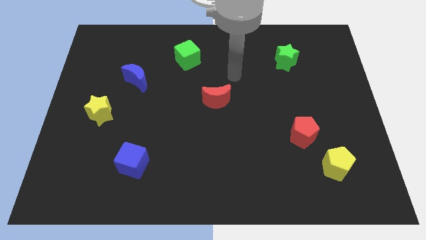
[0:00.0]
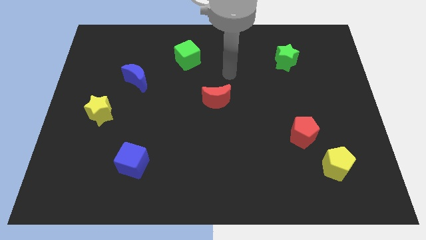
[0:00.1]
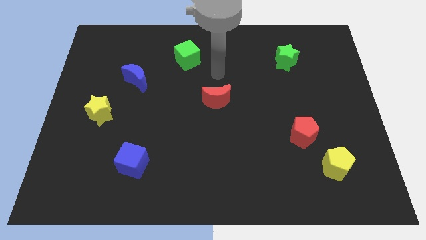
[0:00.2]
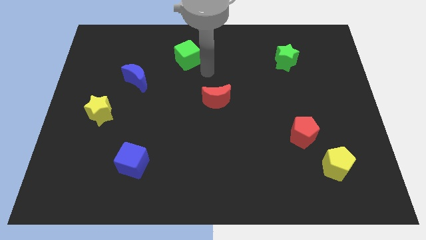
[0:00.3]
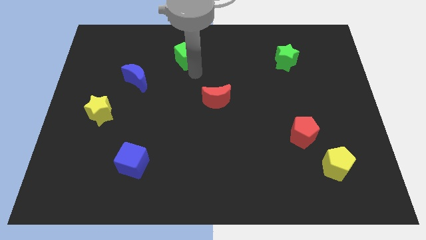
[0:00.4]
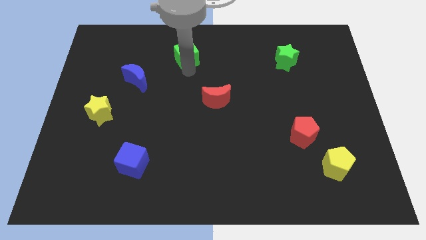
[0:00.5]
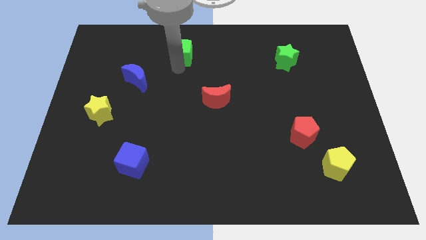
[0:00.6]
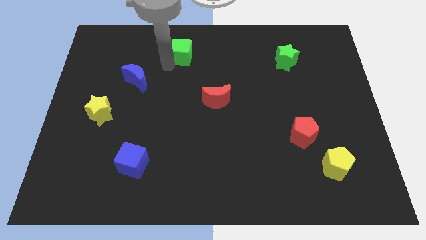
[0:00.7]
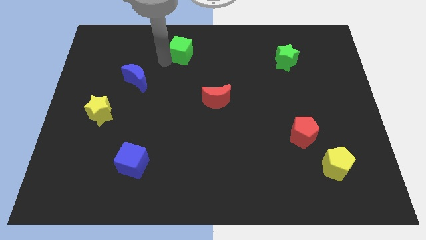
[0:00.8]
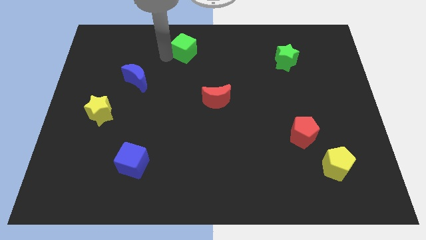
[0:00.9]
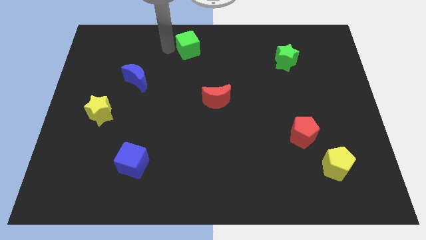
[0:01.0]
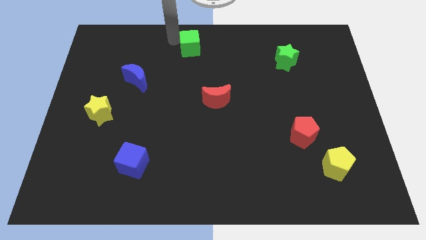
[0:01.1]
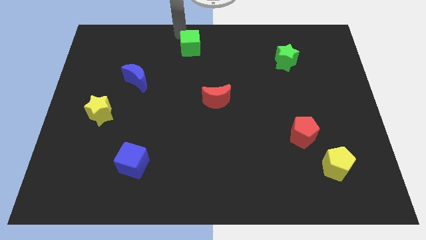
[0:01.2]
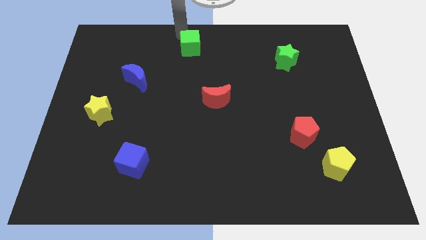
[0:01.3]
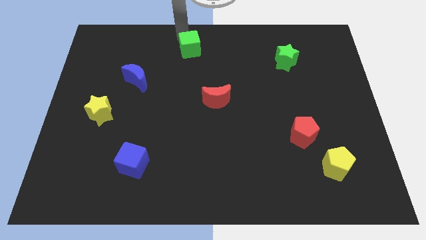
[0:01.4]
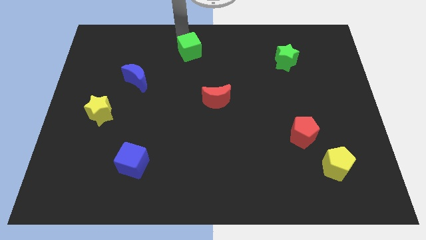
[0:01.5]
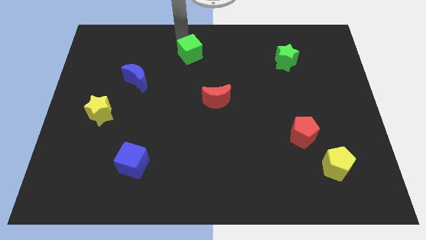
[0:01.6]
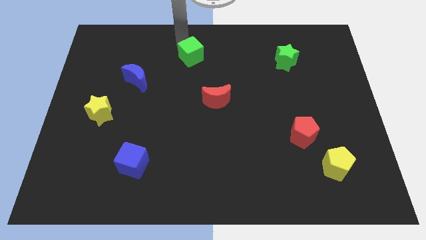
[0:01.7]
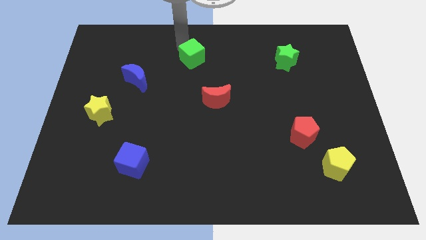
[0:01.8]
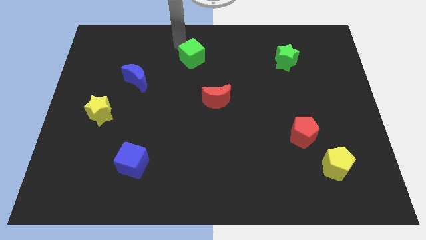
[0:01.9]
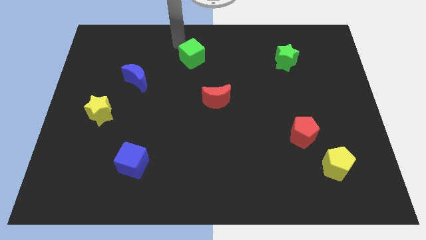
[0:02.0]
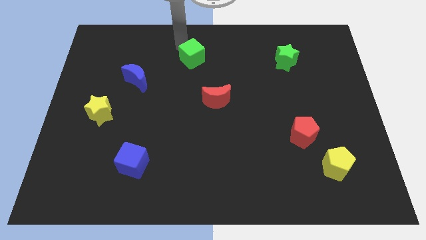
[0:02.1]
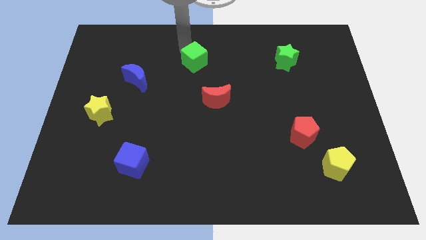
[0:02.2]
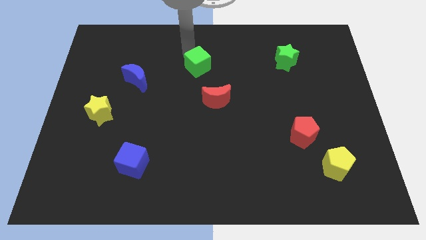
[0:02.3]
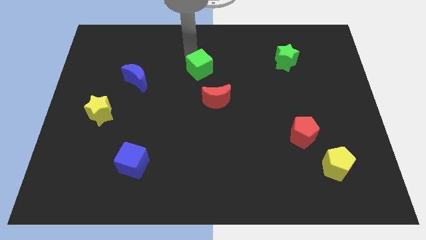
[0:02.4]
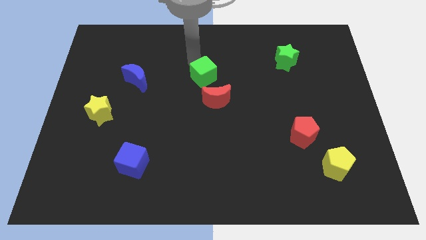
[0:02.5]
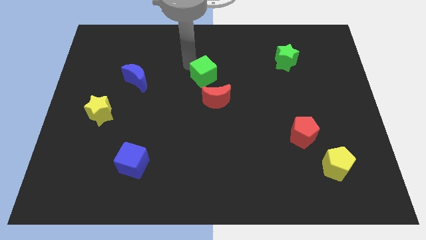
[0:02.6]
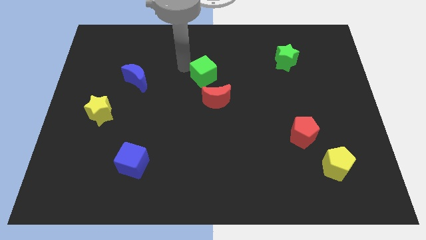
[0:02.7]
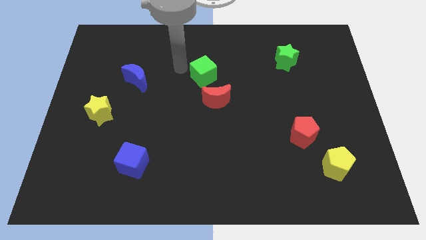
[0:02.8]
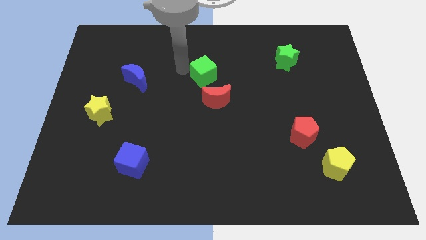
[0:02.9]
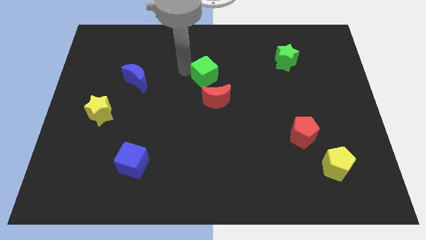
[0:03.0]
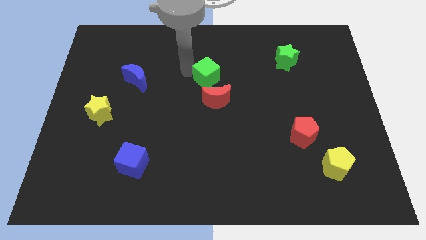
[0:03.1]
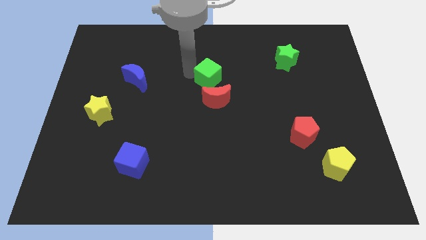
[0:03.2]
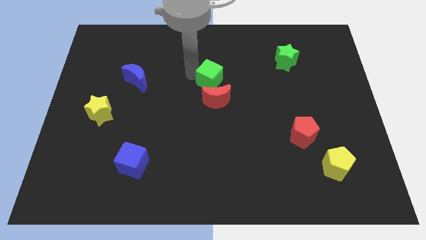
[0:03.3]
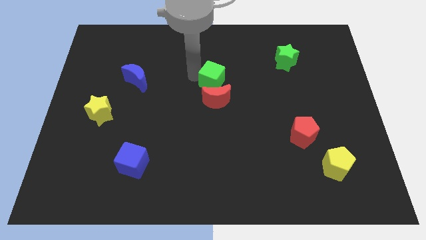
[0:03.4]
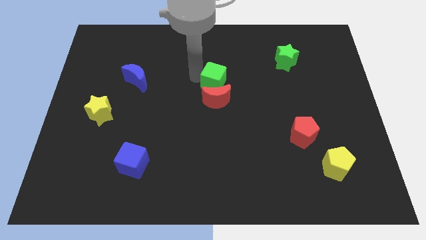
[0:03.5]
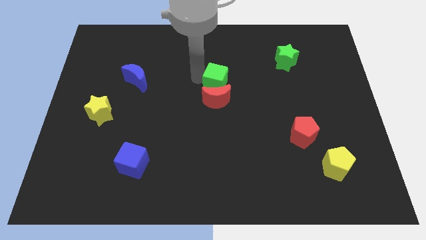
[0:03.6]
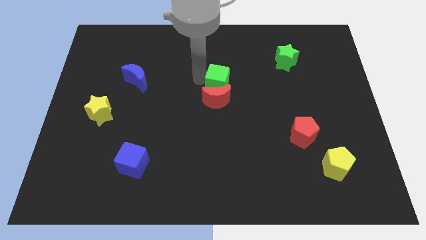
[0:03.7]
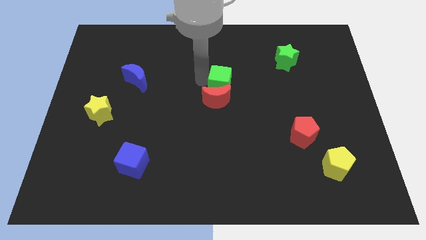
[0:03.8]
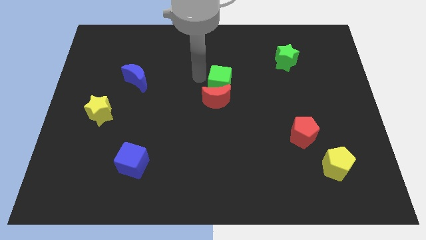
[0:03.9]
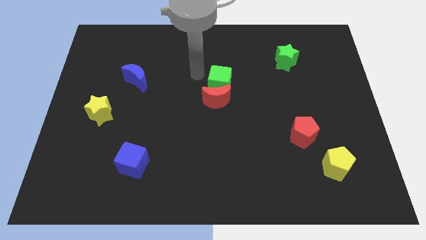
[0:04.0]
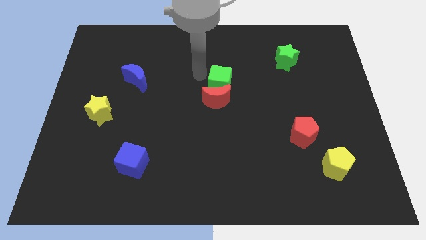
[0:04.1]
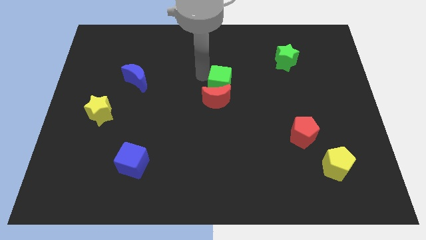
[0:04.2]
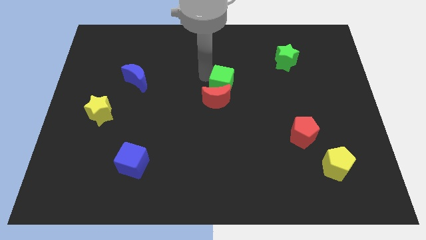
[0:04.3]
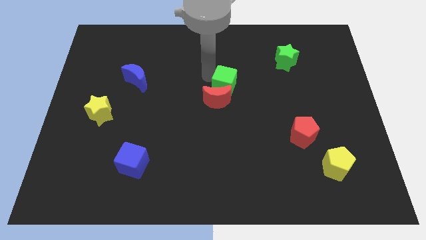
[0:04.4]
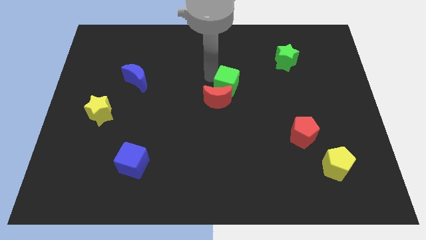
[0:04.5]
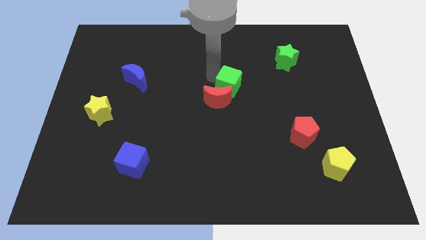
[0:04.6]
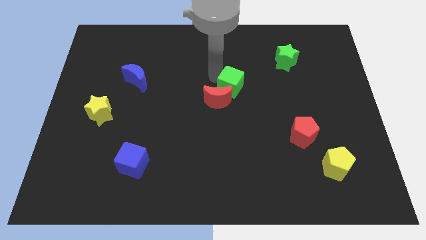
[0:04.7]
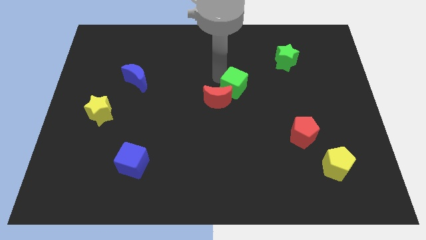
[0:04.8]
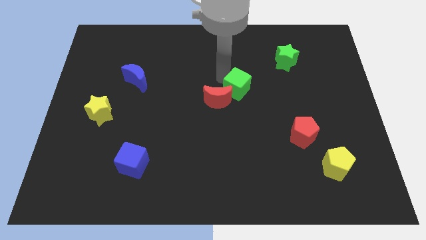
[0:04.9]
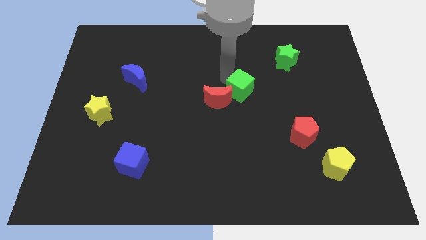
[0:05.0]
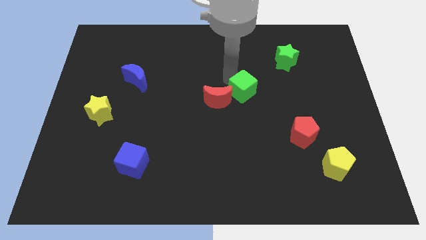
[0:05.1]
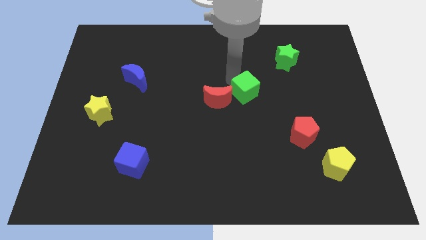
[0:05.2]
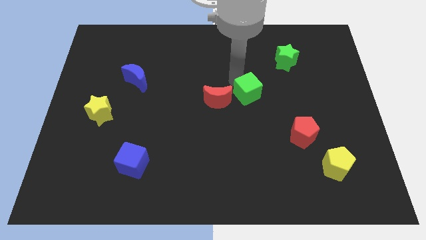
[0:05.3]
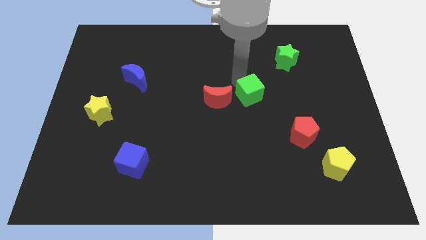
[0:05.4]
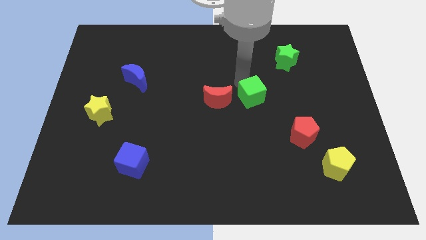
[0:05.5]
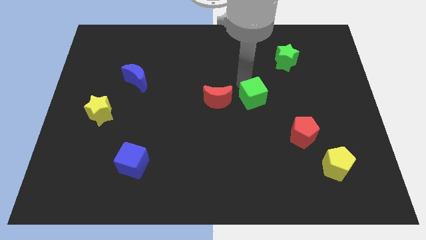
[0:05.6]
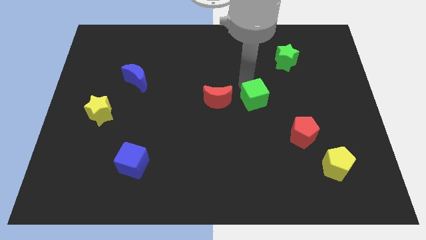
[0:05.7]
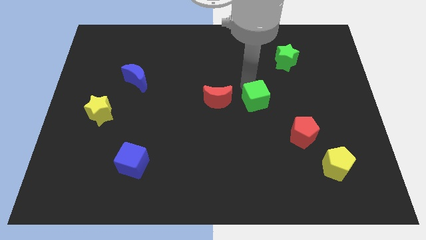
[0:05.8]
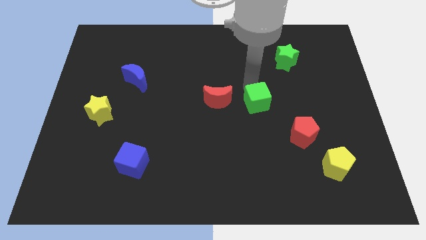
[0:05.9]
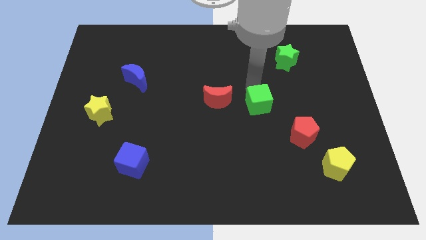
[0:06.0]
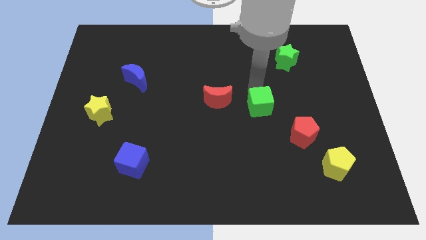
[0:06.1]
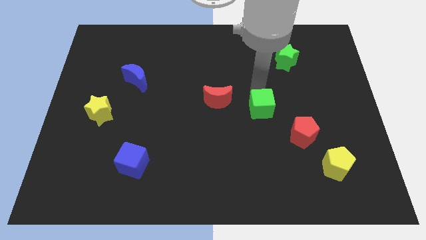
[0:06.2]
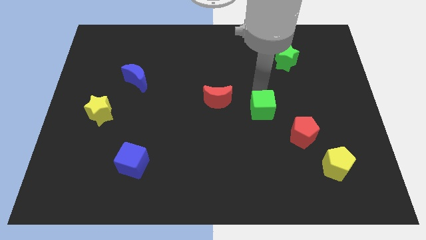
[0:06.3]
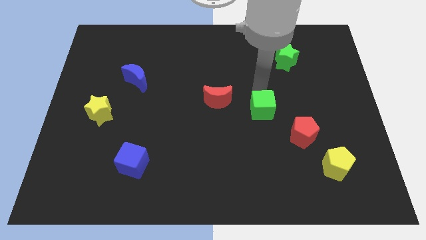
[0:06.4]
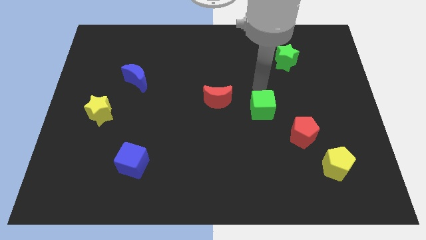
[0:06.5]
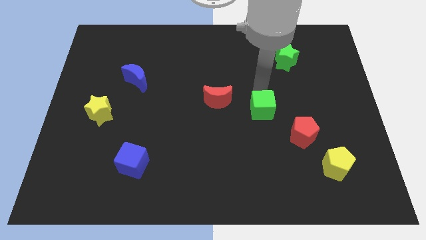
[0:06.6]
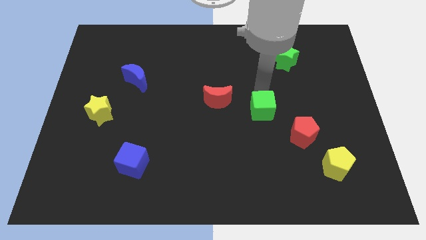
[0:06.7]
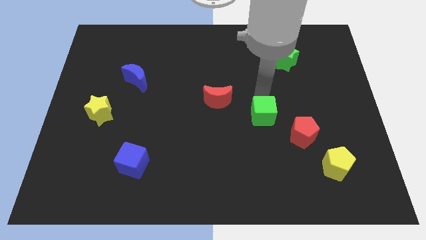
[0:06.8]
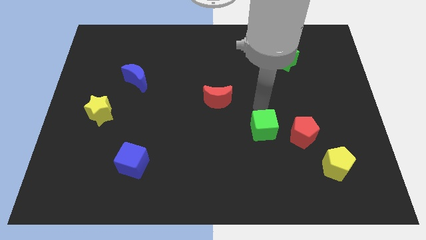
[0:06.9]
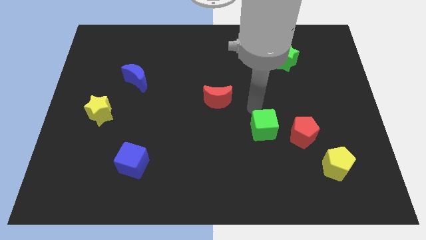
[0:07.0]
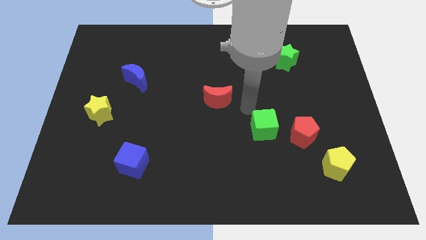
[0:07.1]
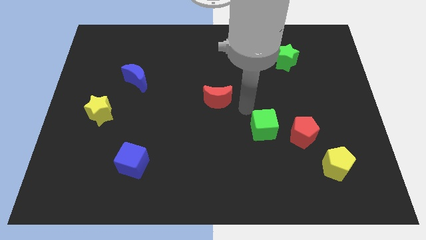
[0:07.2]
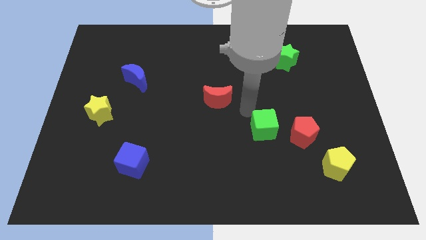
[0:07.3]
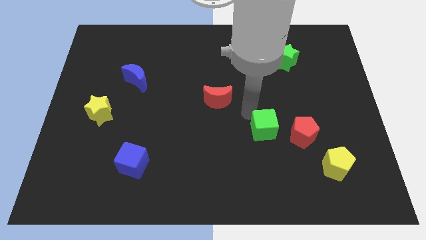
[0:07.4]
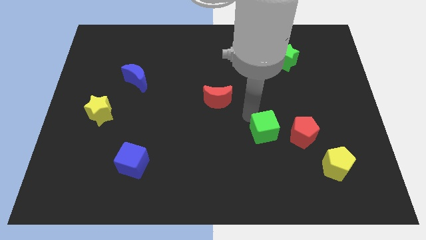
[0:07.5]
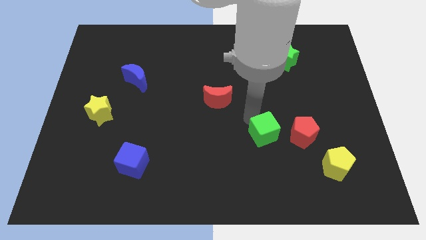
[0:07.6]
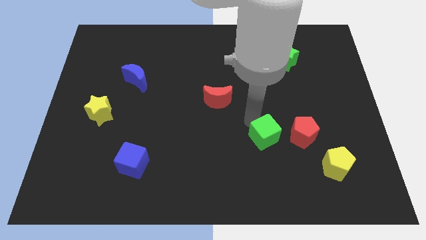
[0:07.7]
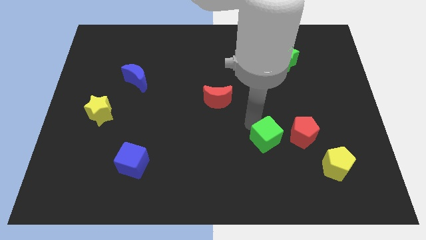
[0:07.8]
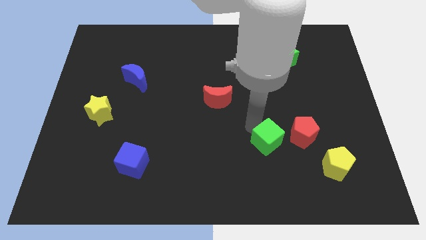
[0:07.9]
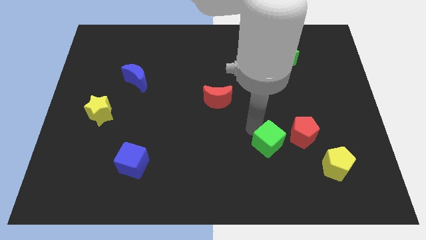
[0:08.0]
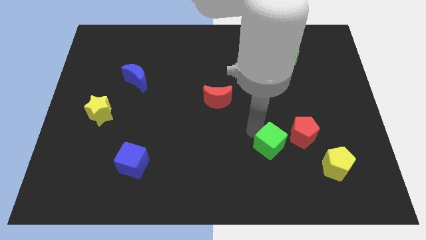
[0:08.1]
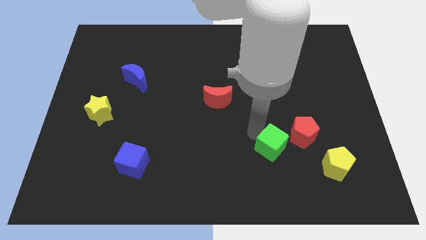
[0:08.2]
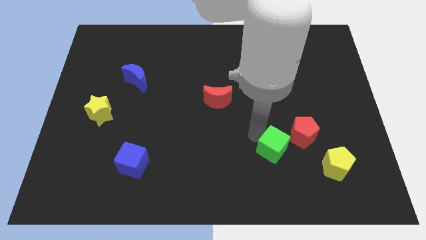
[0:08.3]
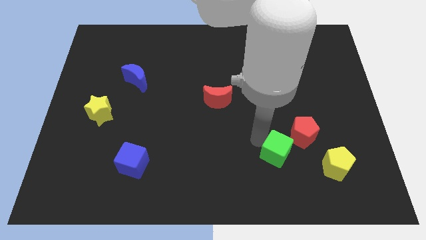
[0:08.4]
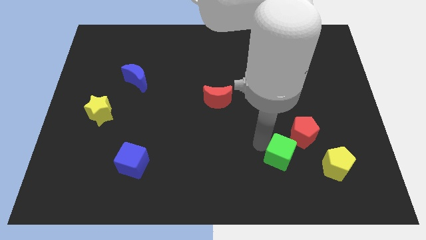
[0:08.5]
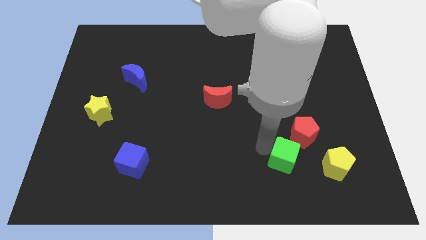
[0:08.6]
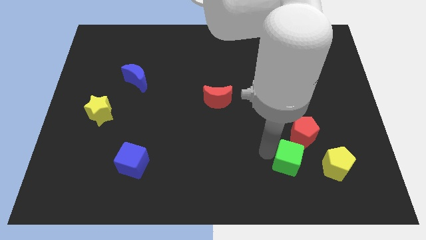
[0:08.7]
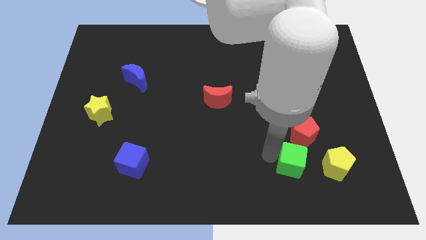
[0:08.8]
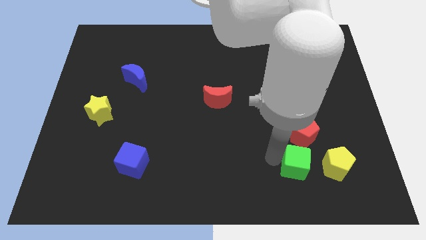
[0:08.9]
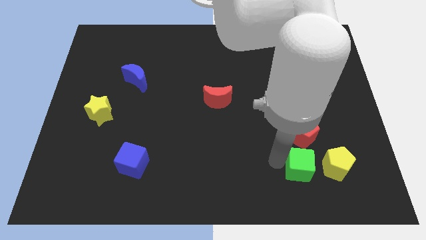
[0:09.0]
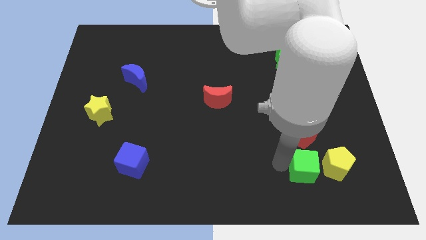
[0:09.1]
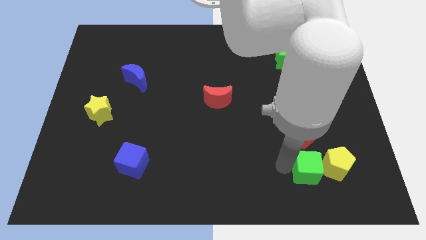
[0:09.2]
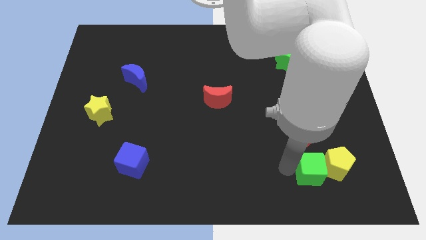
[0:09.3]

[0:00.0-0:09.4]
move the green cube to the yellow pentagon
